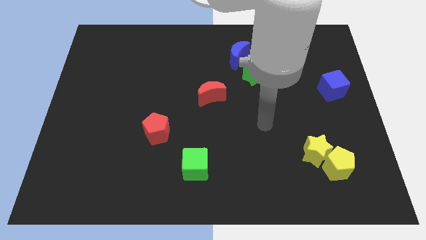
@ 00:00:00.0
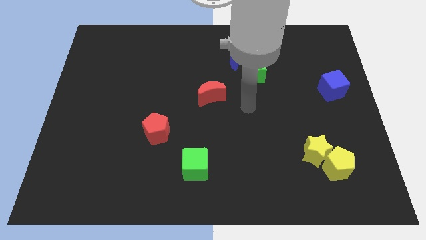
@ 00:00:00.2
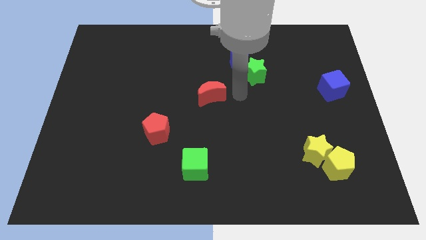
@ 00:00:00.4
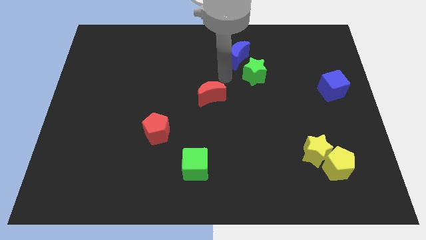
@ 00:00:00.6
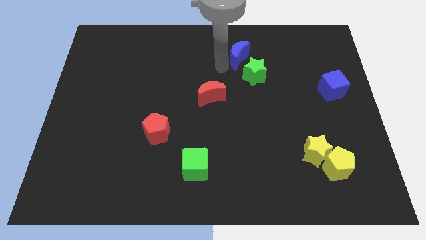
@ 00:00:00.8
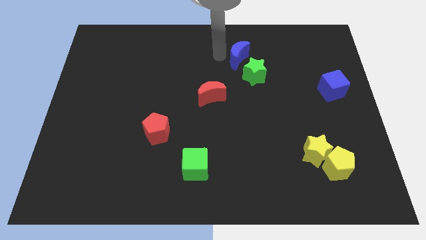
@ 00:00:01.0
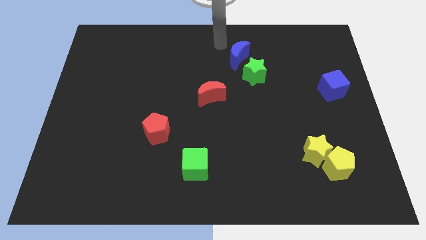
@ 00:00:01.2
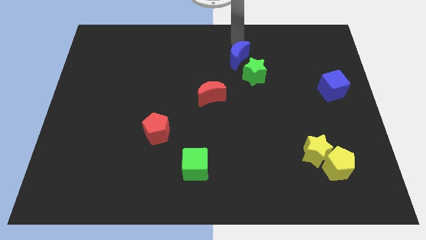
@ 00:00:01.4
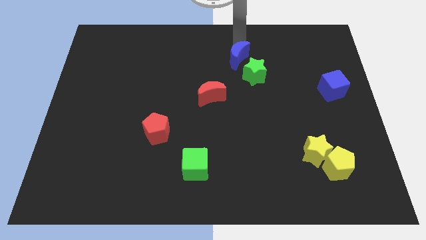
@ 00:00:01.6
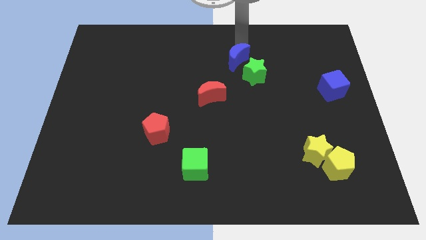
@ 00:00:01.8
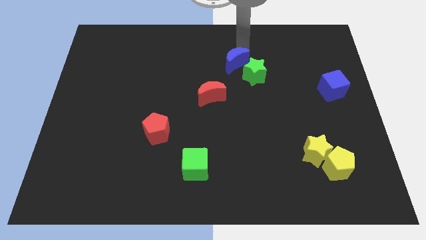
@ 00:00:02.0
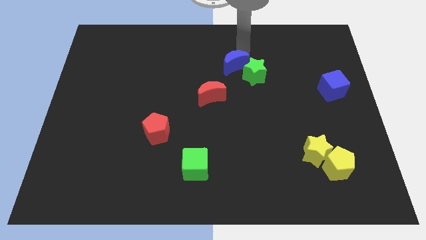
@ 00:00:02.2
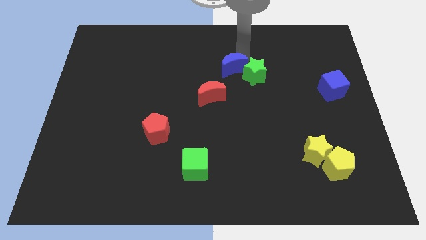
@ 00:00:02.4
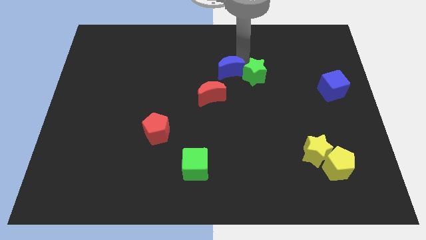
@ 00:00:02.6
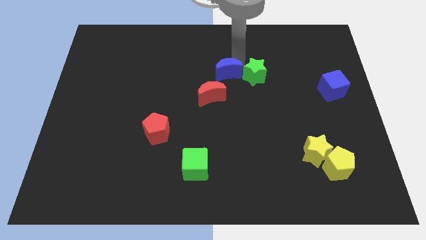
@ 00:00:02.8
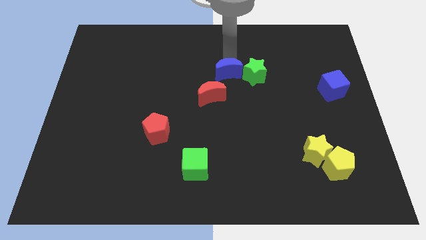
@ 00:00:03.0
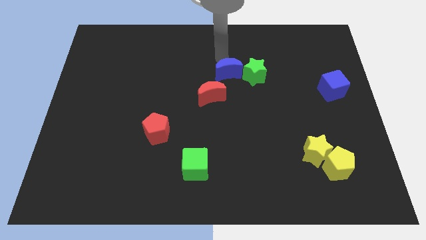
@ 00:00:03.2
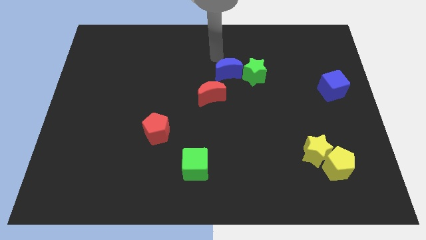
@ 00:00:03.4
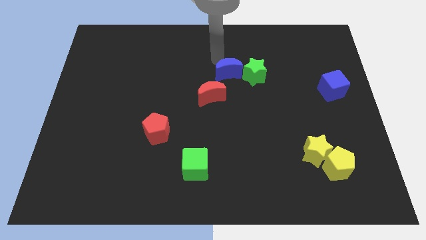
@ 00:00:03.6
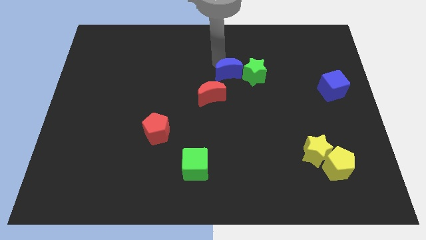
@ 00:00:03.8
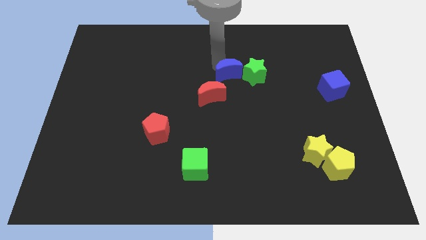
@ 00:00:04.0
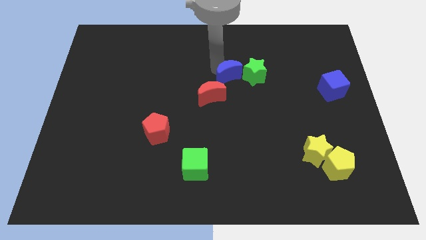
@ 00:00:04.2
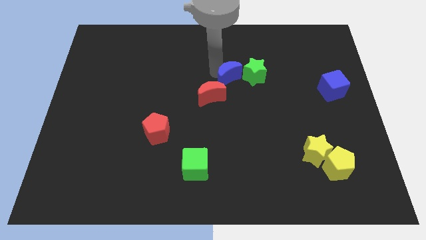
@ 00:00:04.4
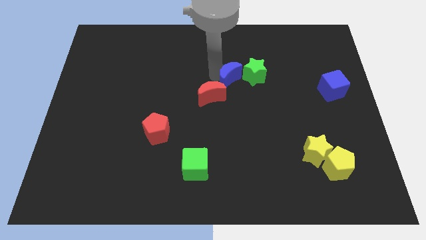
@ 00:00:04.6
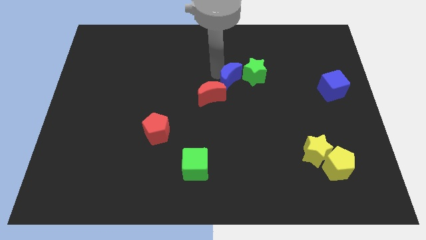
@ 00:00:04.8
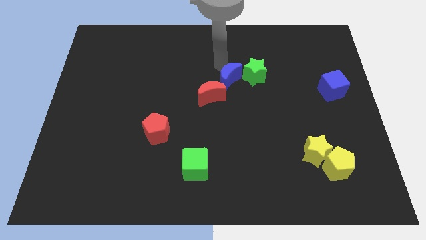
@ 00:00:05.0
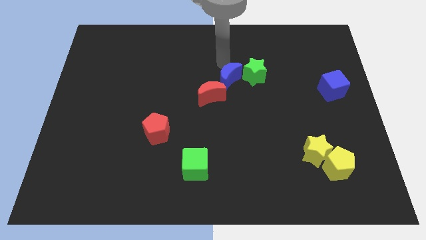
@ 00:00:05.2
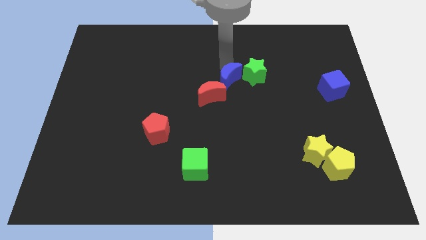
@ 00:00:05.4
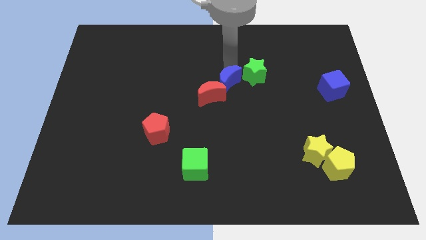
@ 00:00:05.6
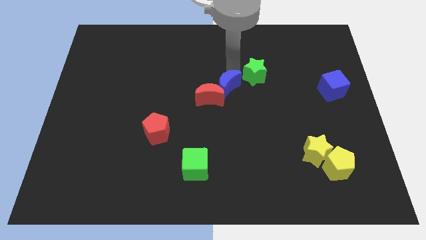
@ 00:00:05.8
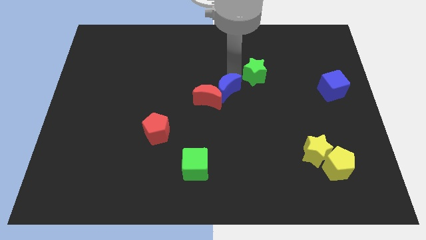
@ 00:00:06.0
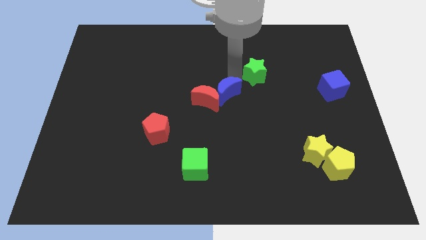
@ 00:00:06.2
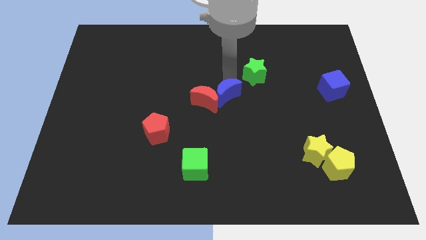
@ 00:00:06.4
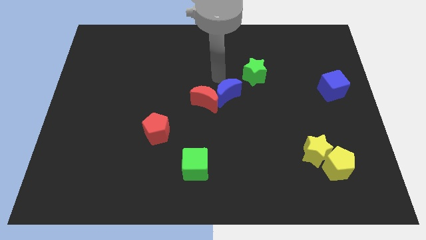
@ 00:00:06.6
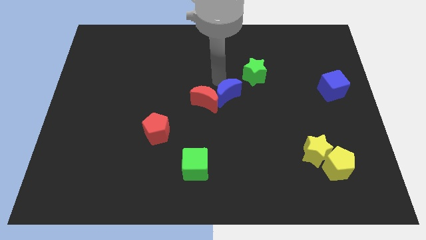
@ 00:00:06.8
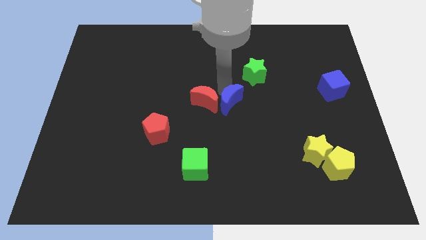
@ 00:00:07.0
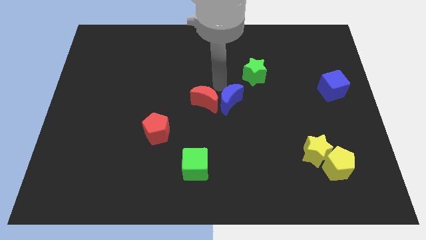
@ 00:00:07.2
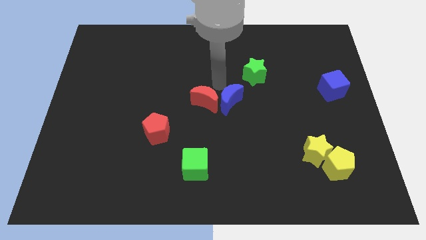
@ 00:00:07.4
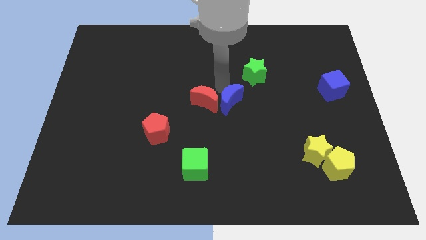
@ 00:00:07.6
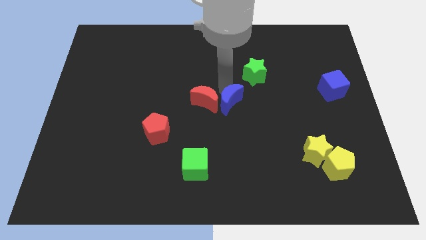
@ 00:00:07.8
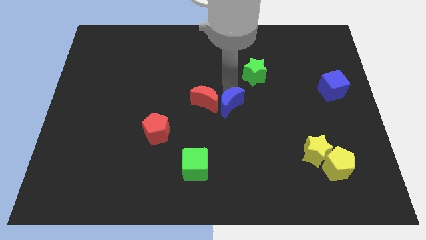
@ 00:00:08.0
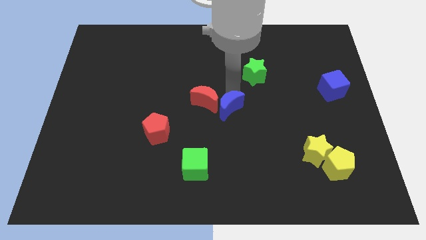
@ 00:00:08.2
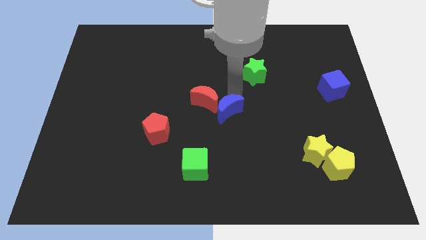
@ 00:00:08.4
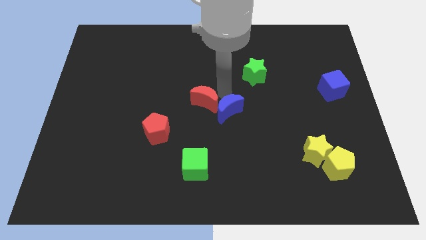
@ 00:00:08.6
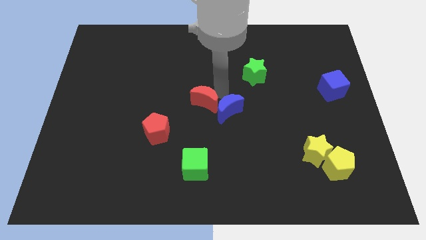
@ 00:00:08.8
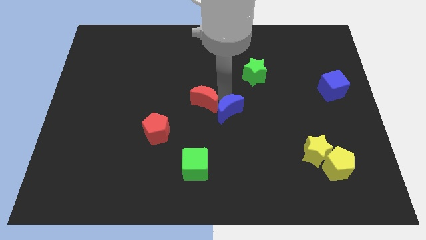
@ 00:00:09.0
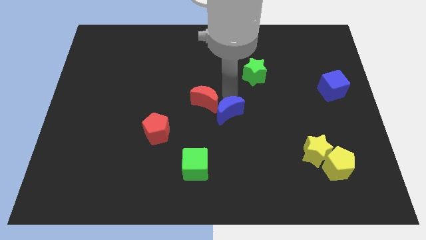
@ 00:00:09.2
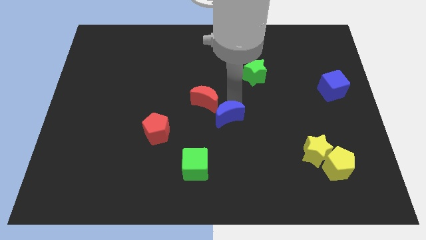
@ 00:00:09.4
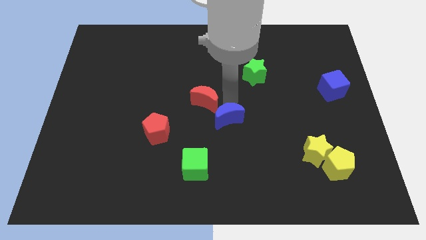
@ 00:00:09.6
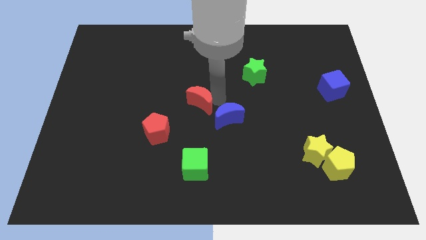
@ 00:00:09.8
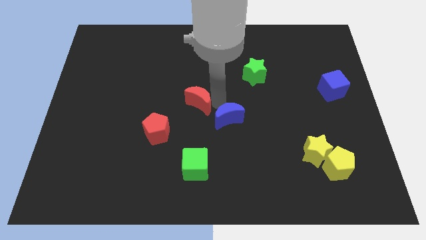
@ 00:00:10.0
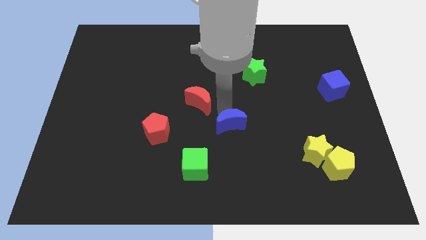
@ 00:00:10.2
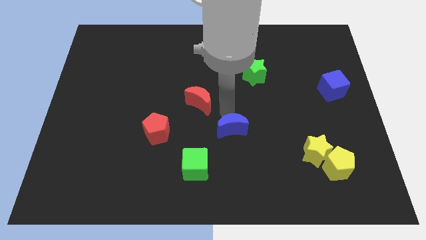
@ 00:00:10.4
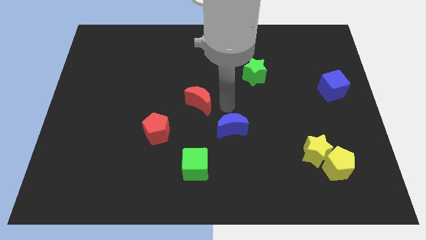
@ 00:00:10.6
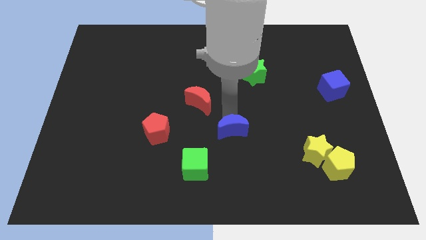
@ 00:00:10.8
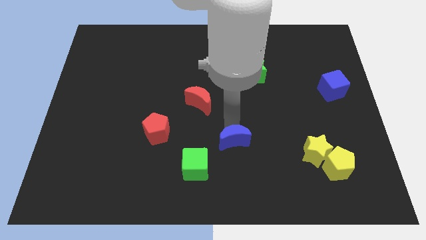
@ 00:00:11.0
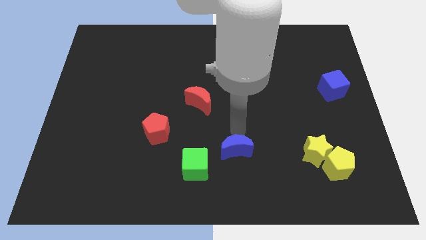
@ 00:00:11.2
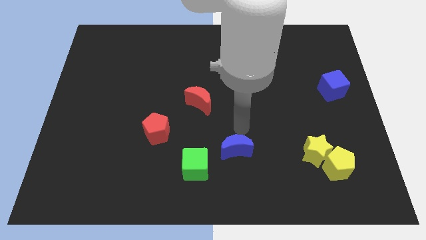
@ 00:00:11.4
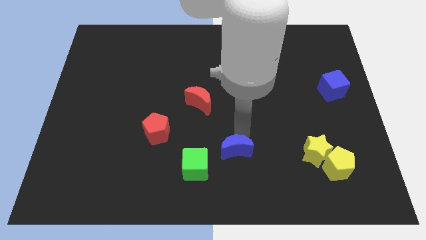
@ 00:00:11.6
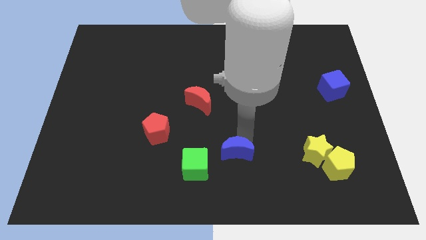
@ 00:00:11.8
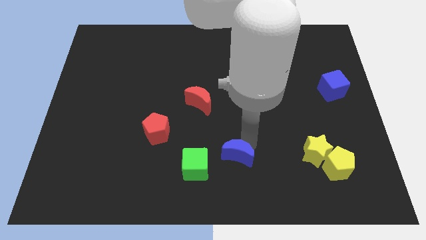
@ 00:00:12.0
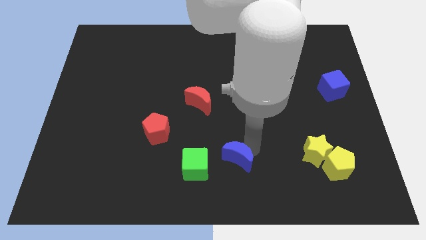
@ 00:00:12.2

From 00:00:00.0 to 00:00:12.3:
move the blue moon to the bottom
